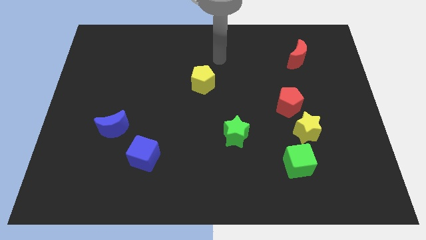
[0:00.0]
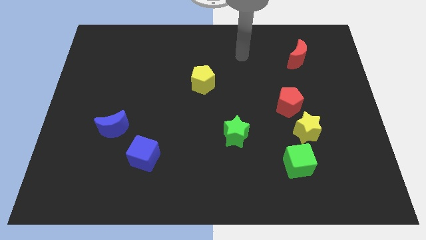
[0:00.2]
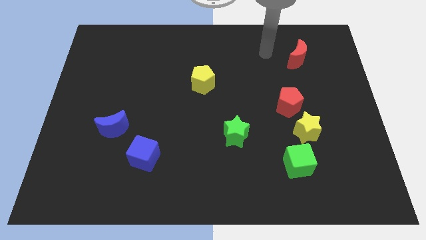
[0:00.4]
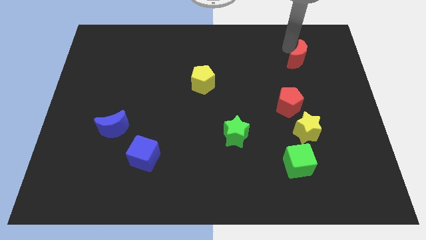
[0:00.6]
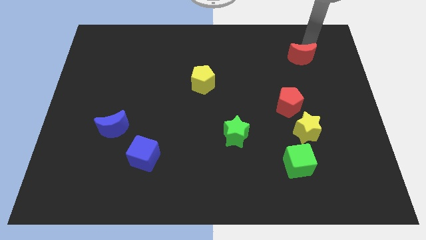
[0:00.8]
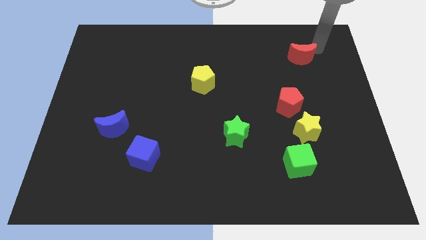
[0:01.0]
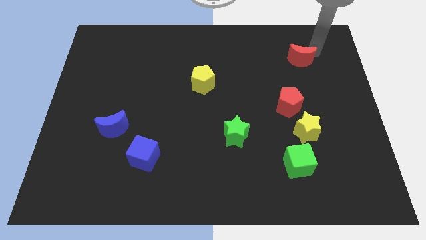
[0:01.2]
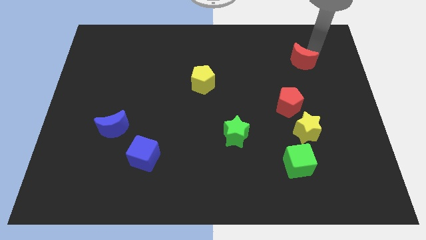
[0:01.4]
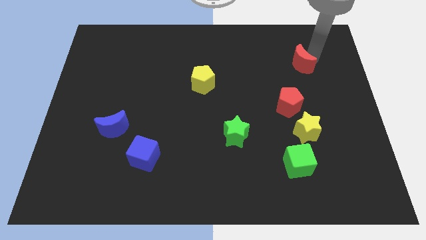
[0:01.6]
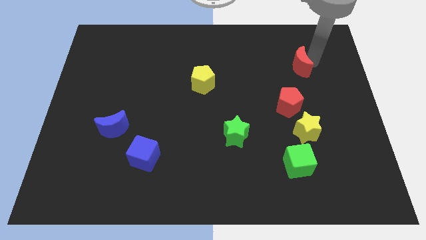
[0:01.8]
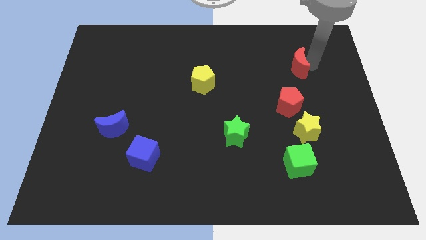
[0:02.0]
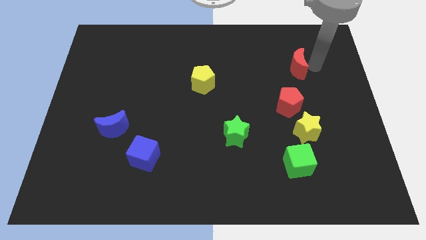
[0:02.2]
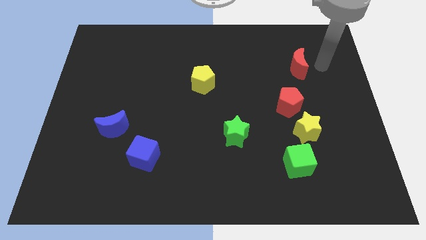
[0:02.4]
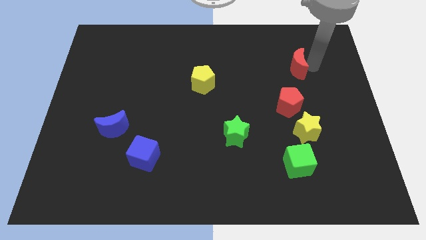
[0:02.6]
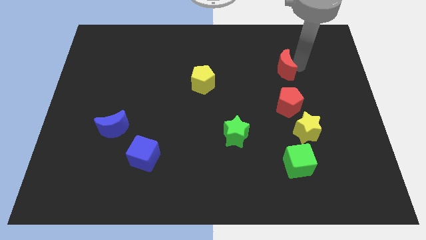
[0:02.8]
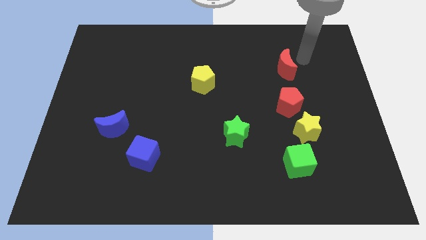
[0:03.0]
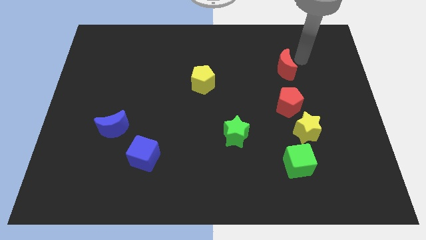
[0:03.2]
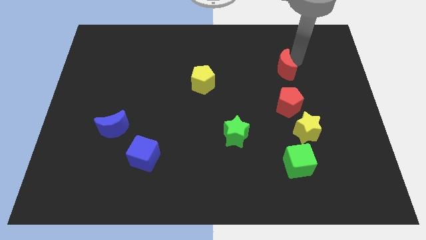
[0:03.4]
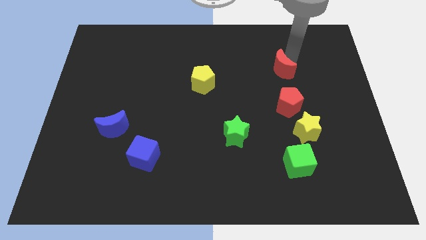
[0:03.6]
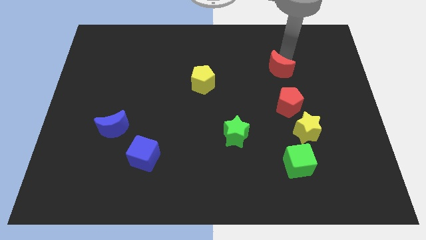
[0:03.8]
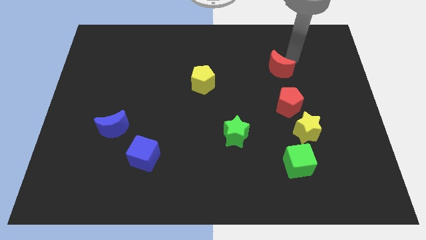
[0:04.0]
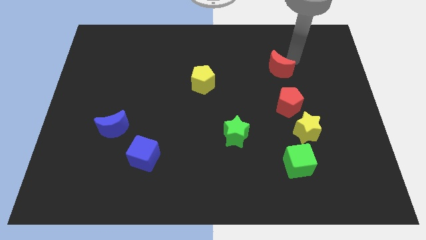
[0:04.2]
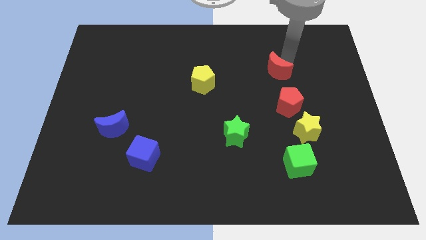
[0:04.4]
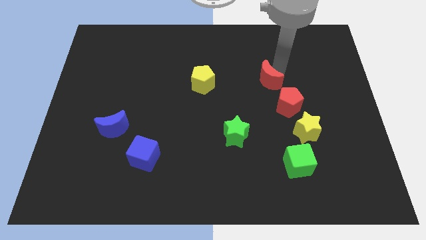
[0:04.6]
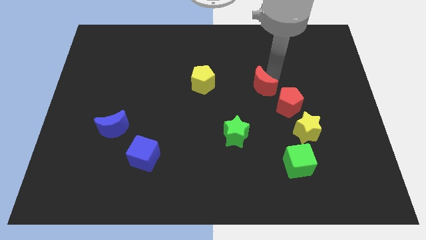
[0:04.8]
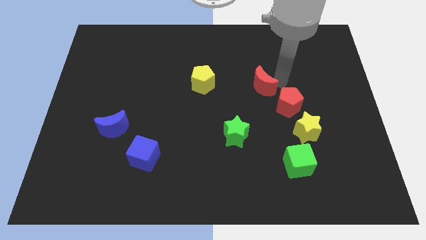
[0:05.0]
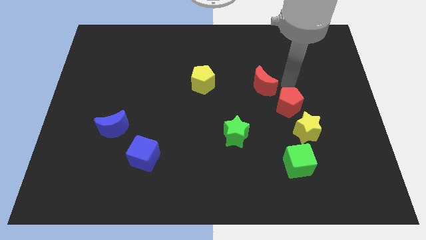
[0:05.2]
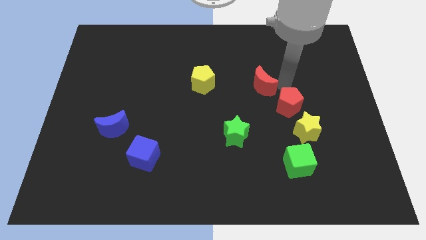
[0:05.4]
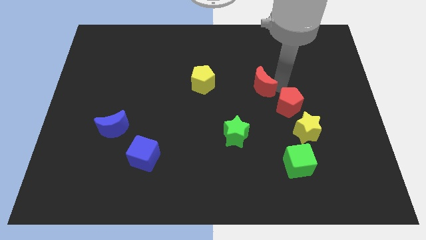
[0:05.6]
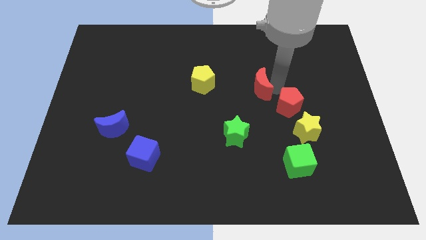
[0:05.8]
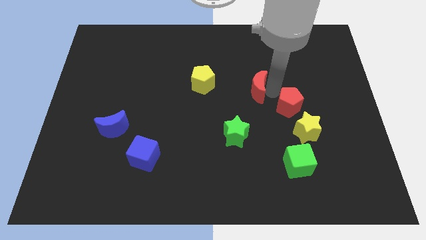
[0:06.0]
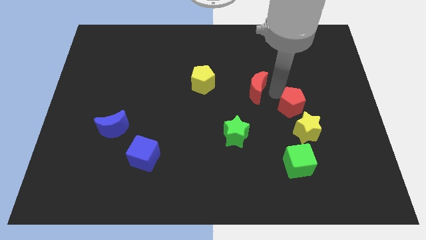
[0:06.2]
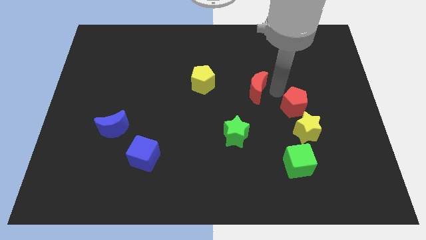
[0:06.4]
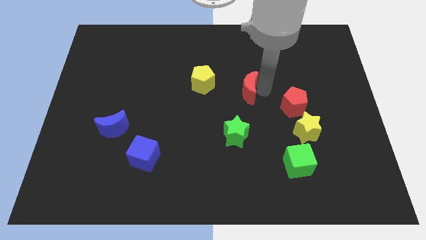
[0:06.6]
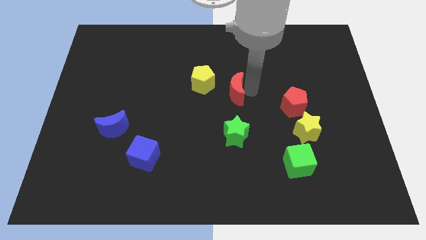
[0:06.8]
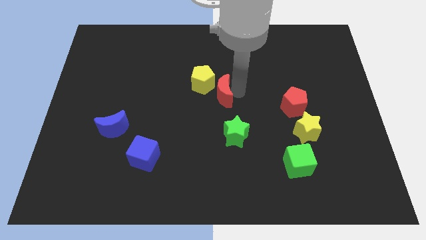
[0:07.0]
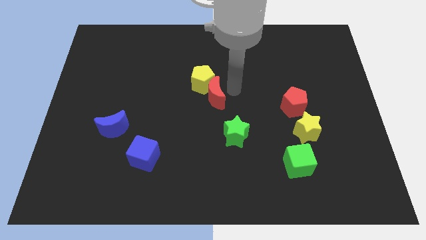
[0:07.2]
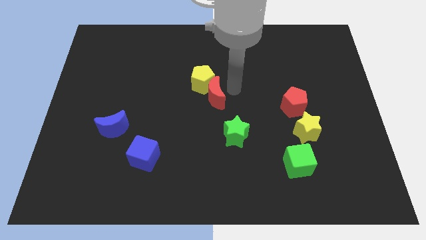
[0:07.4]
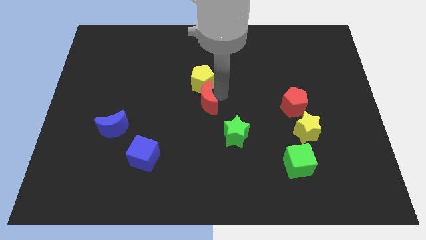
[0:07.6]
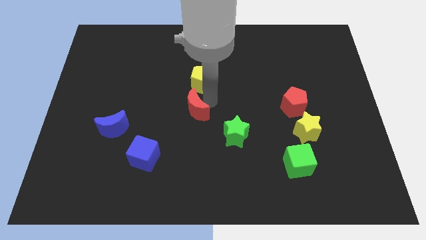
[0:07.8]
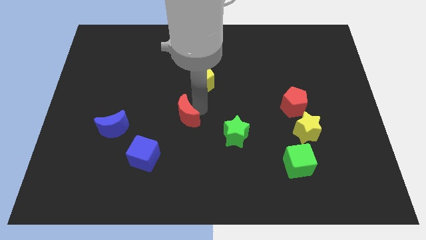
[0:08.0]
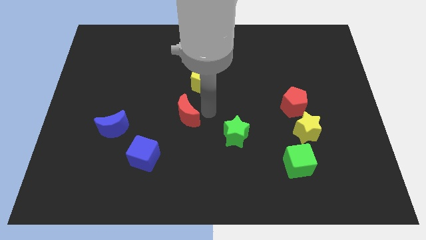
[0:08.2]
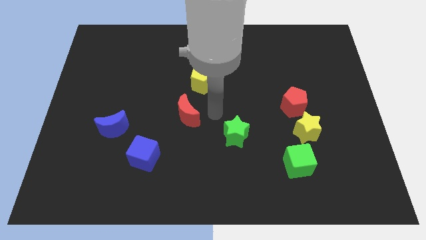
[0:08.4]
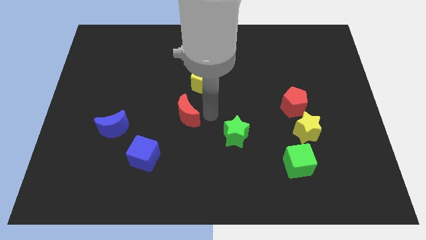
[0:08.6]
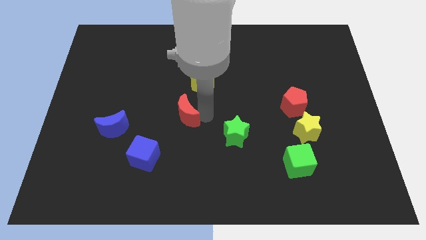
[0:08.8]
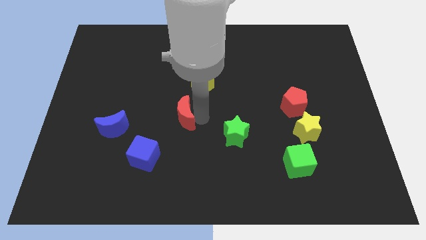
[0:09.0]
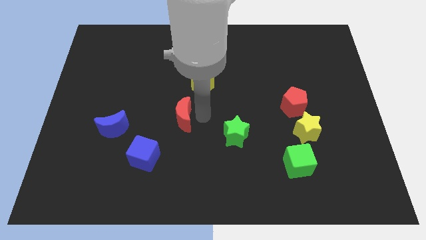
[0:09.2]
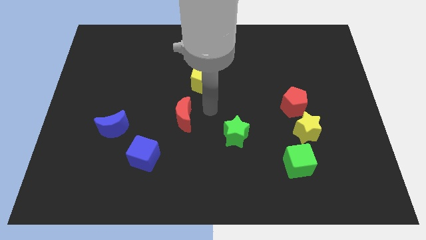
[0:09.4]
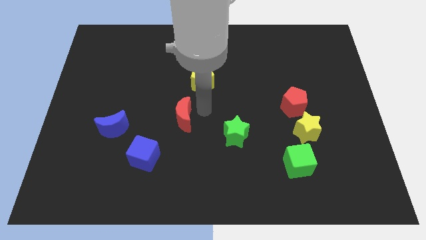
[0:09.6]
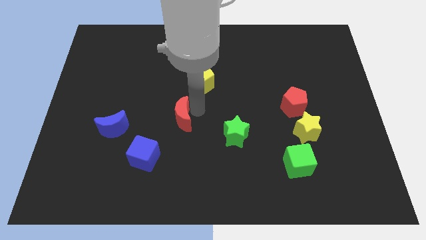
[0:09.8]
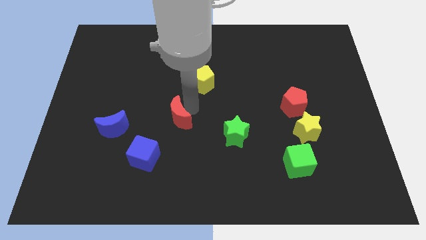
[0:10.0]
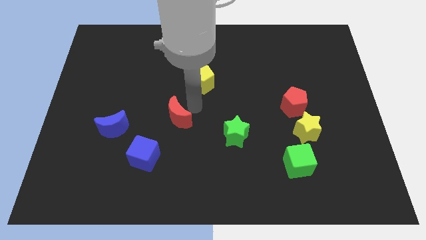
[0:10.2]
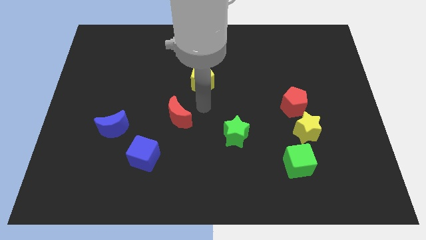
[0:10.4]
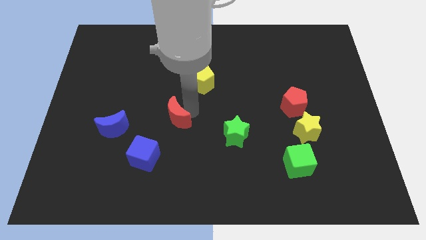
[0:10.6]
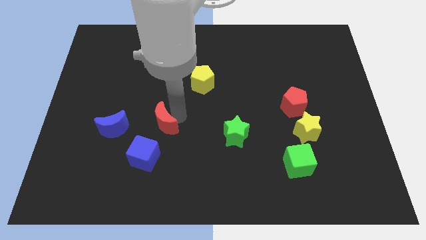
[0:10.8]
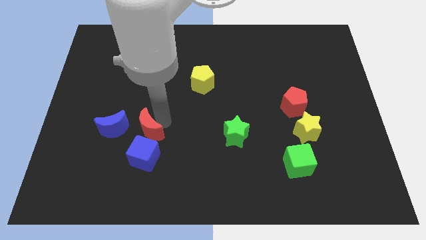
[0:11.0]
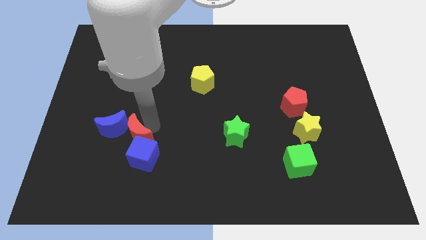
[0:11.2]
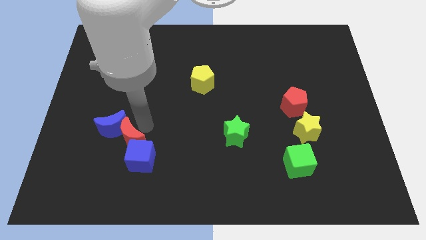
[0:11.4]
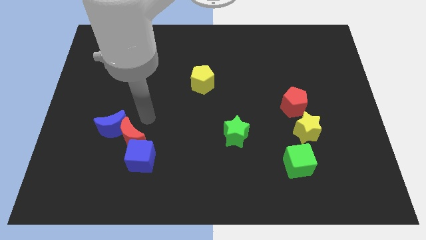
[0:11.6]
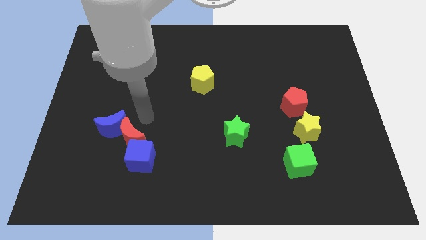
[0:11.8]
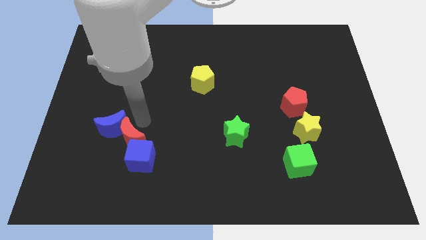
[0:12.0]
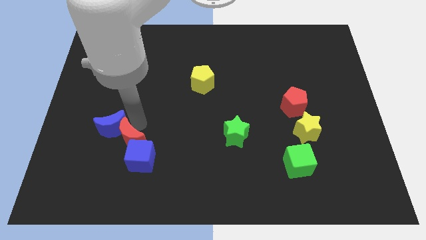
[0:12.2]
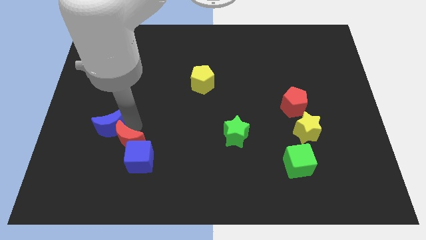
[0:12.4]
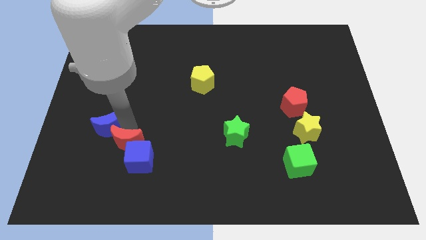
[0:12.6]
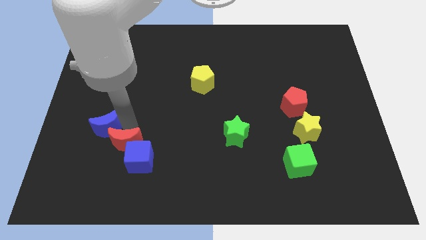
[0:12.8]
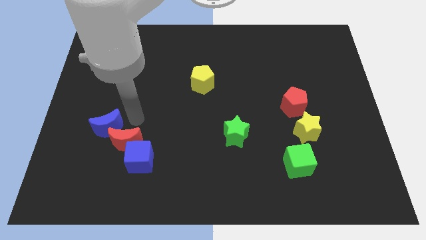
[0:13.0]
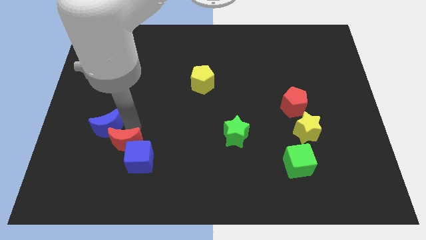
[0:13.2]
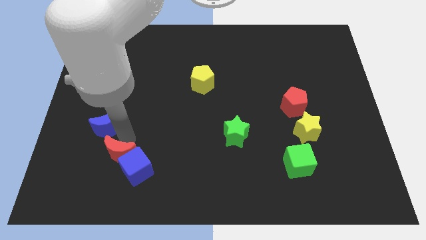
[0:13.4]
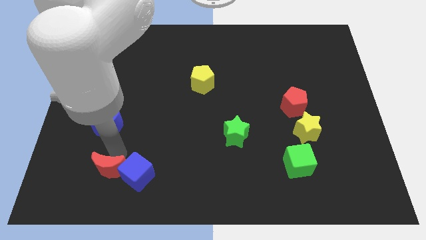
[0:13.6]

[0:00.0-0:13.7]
push the red moon diagonally down and to the left of the blue cube
